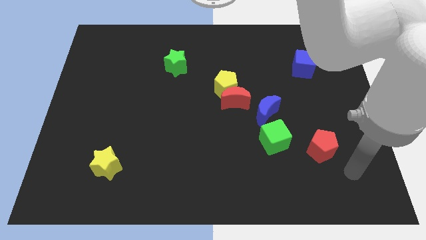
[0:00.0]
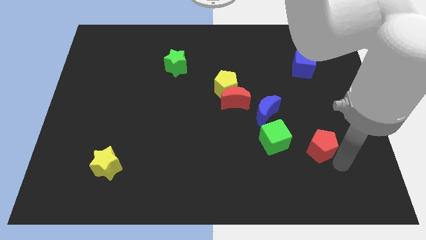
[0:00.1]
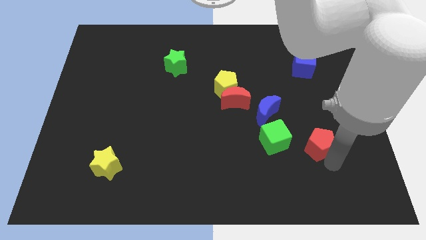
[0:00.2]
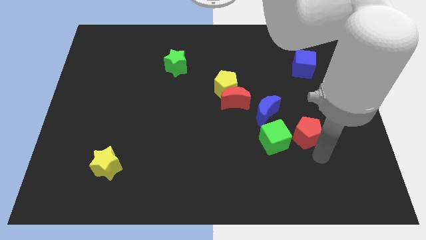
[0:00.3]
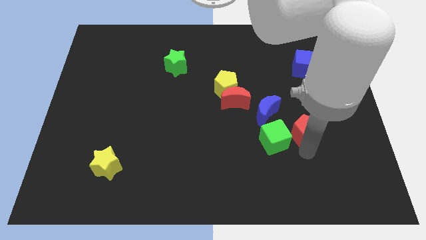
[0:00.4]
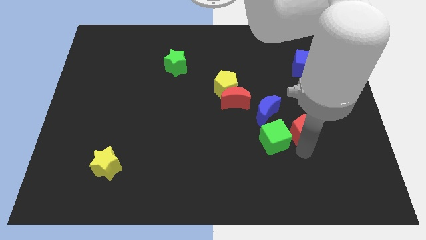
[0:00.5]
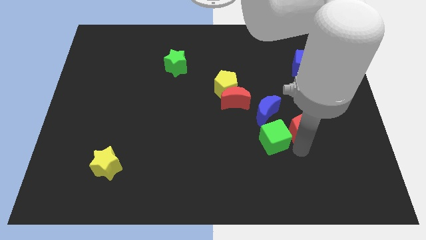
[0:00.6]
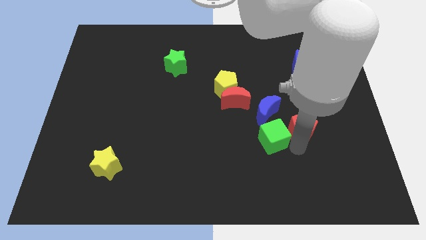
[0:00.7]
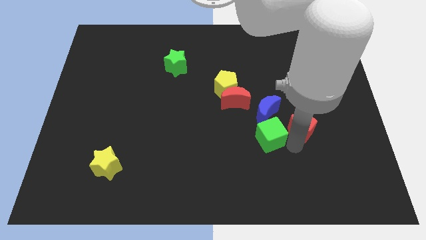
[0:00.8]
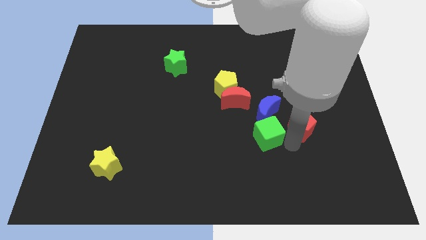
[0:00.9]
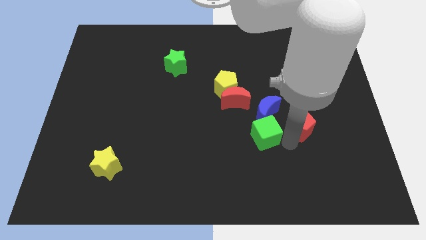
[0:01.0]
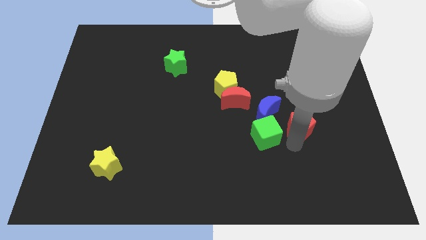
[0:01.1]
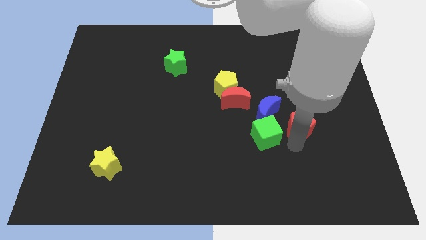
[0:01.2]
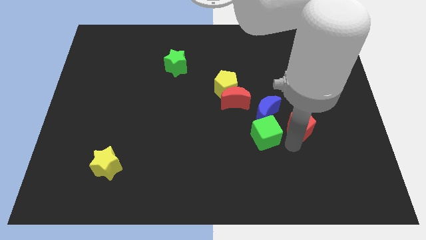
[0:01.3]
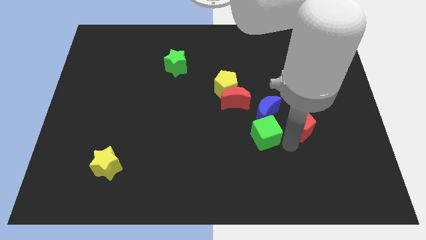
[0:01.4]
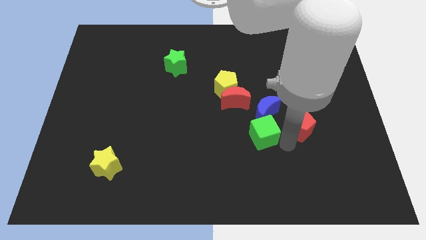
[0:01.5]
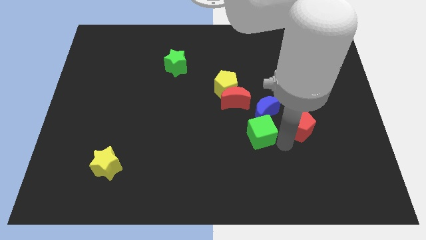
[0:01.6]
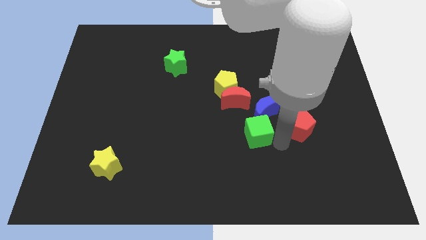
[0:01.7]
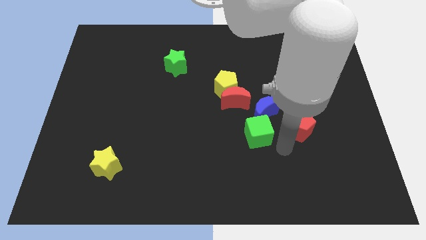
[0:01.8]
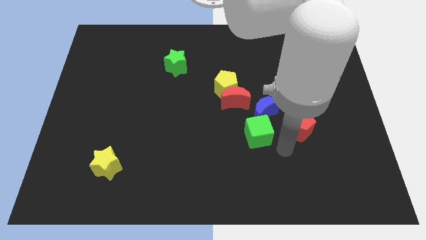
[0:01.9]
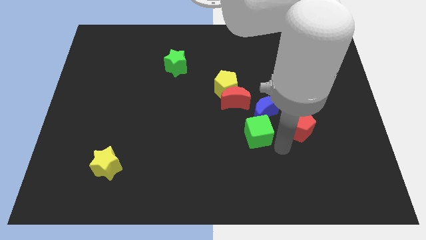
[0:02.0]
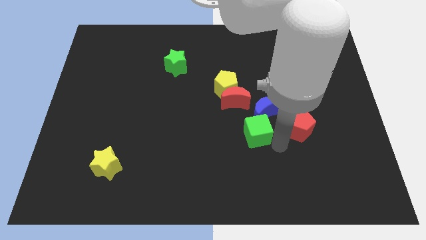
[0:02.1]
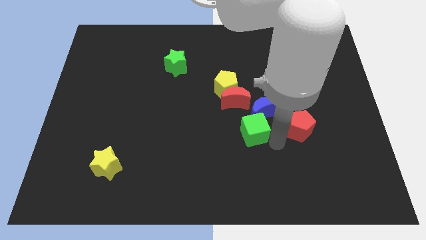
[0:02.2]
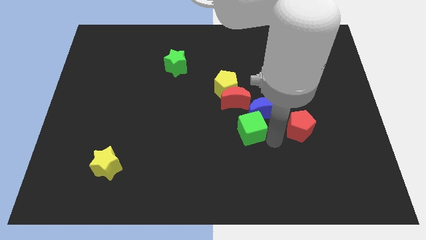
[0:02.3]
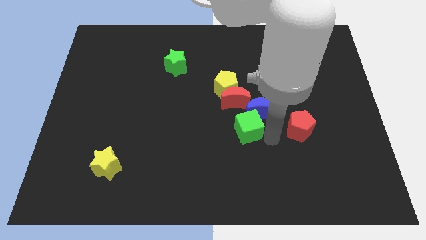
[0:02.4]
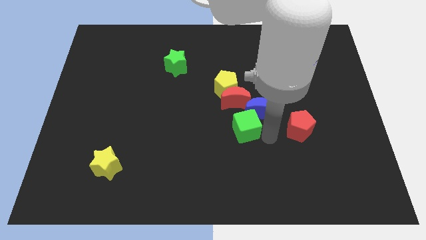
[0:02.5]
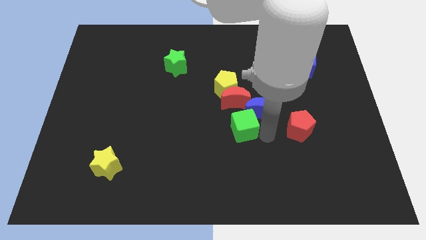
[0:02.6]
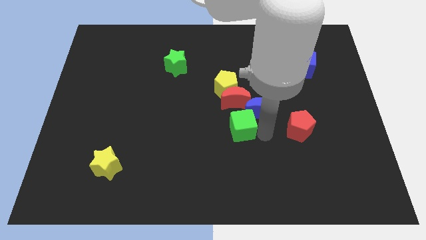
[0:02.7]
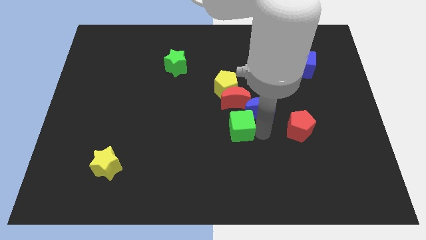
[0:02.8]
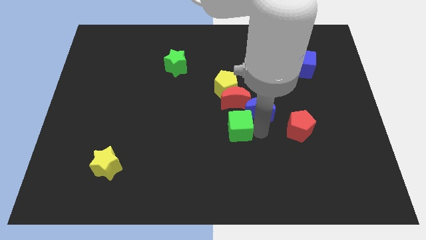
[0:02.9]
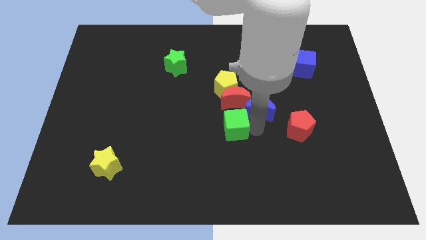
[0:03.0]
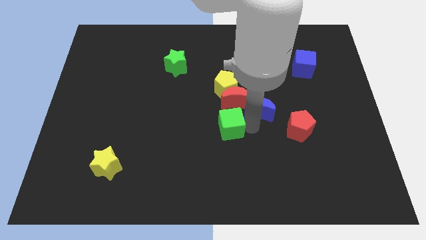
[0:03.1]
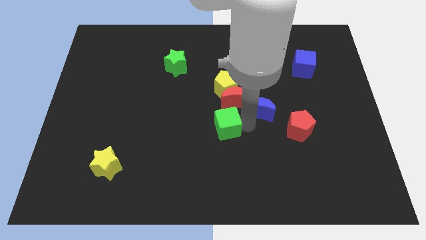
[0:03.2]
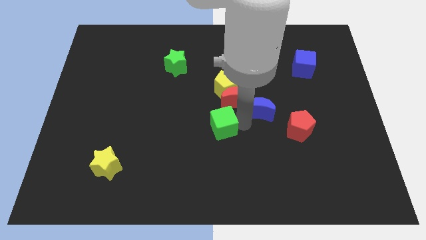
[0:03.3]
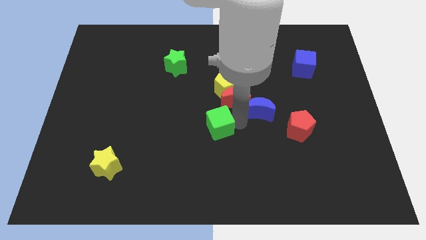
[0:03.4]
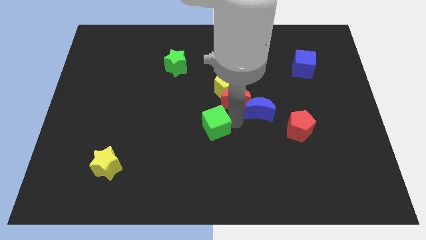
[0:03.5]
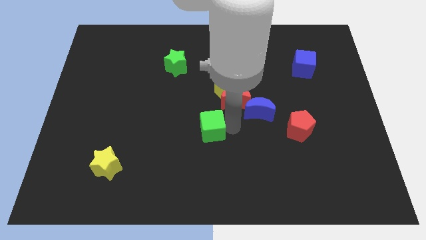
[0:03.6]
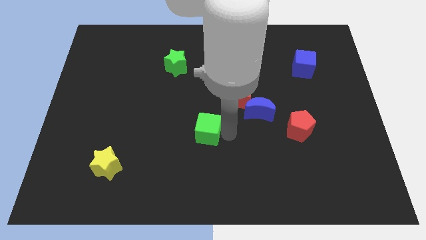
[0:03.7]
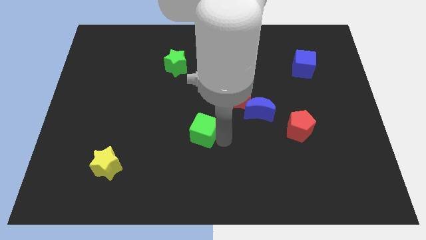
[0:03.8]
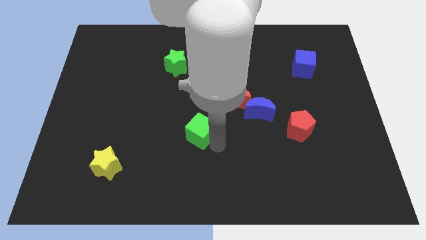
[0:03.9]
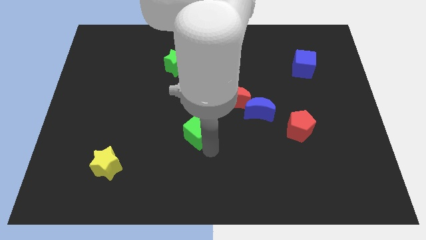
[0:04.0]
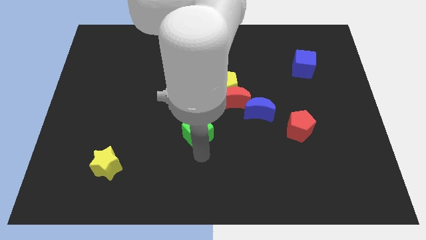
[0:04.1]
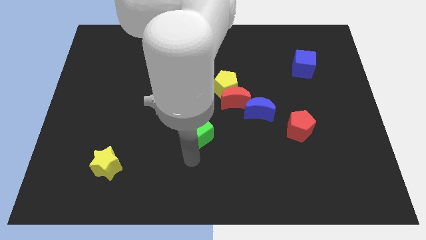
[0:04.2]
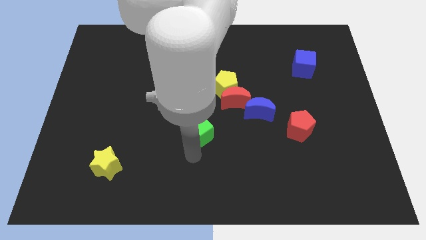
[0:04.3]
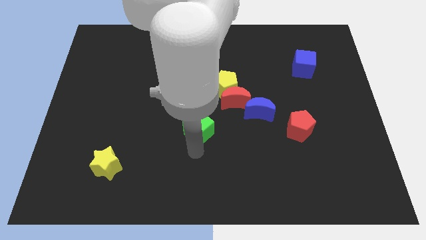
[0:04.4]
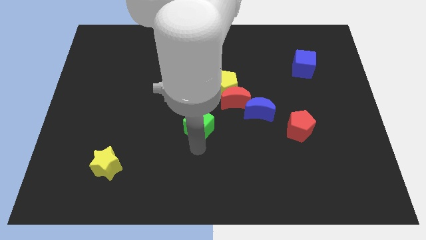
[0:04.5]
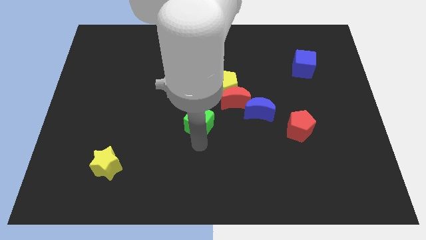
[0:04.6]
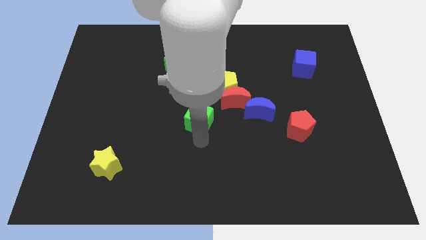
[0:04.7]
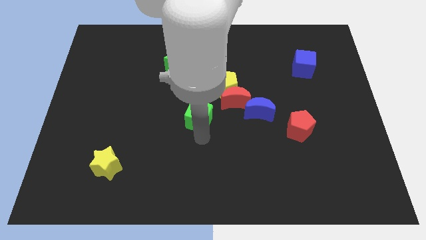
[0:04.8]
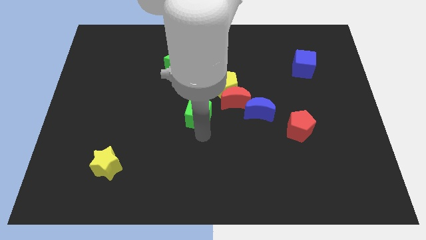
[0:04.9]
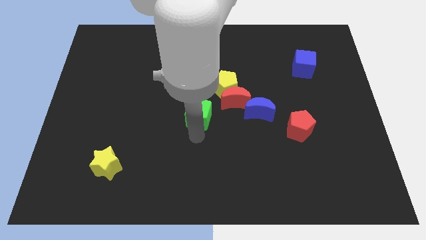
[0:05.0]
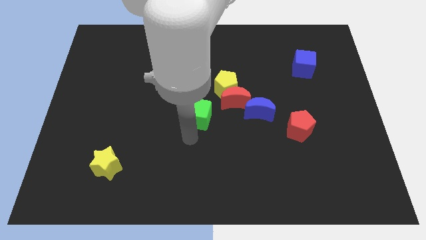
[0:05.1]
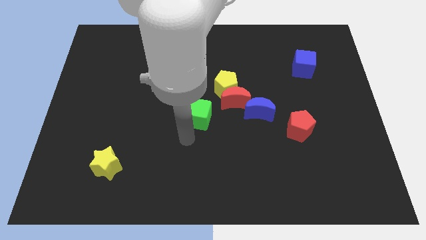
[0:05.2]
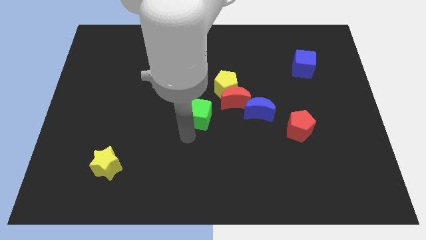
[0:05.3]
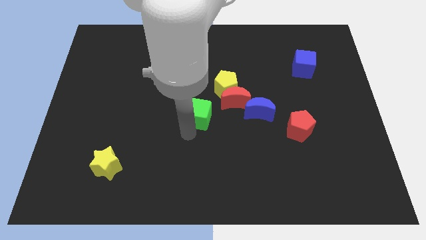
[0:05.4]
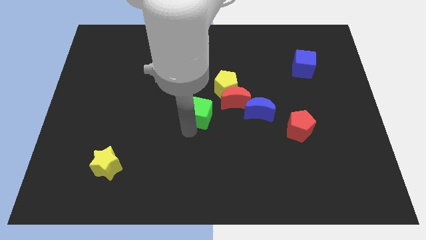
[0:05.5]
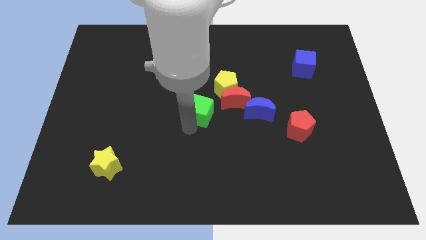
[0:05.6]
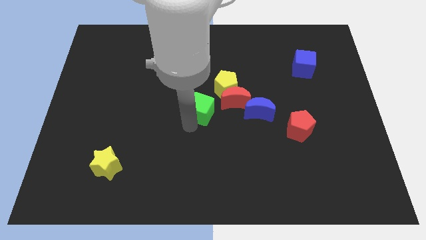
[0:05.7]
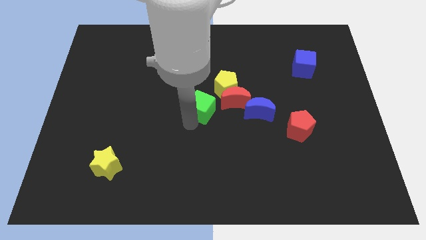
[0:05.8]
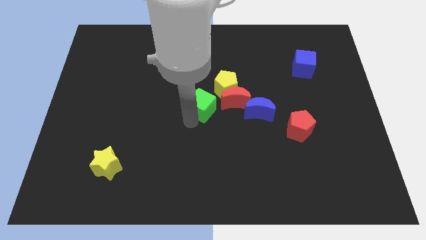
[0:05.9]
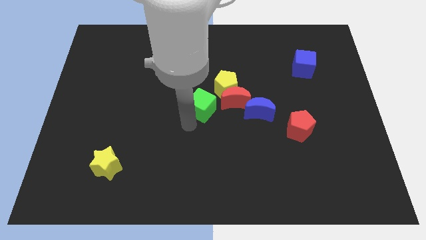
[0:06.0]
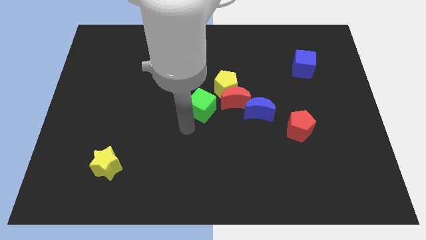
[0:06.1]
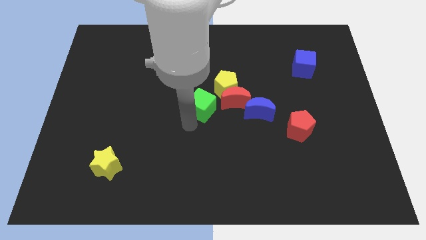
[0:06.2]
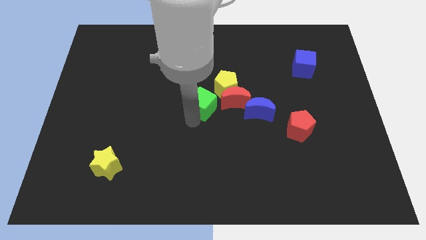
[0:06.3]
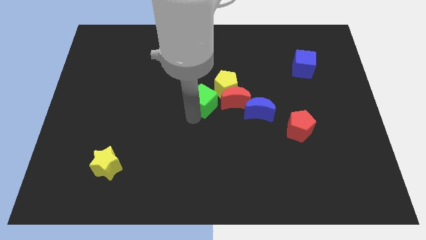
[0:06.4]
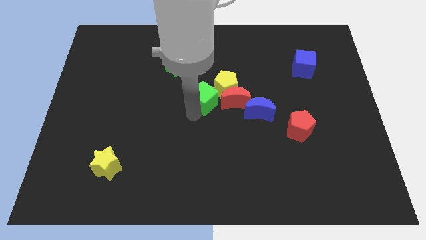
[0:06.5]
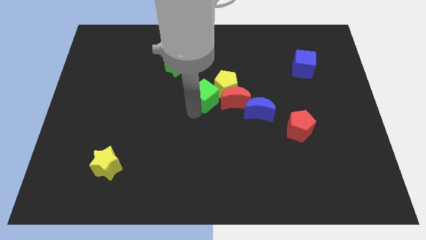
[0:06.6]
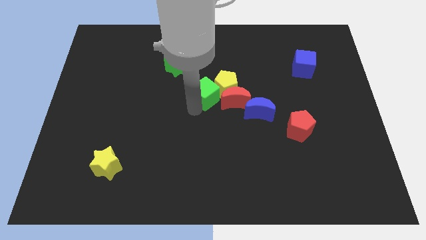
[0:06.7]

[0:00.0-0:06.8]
slide the green cube diagonally down and to the right of the green star

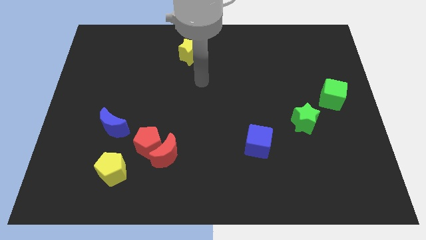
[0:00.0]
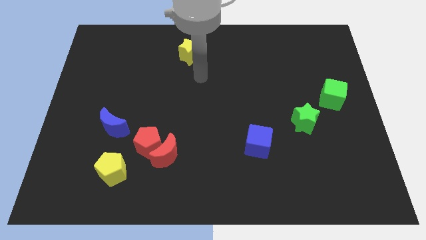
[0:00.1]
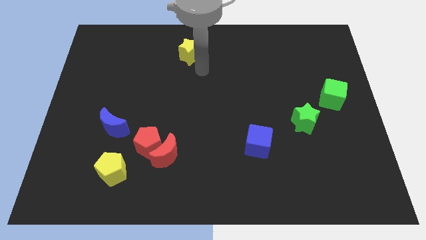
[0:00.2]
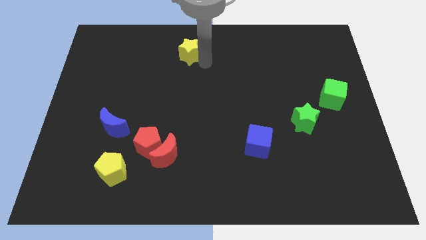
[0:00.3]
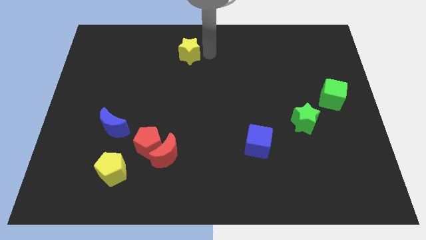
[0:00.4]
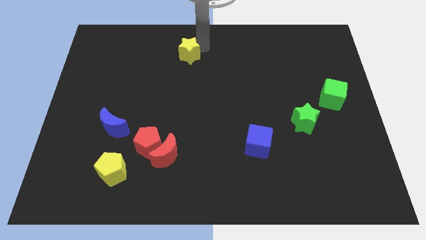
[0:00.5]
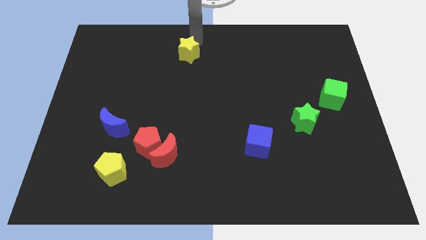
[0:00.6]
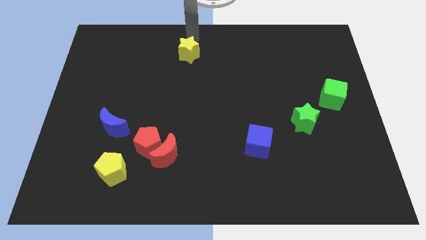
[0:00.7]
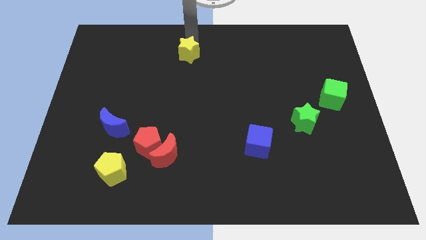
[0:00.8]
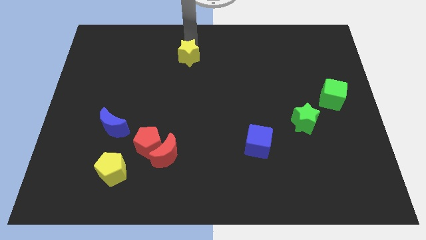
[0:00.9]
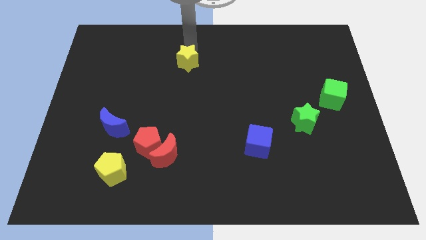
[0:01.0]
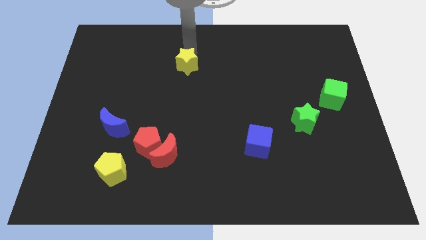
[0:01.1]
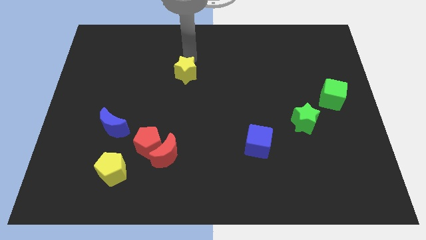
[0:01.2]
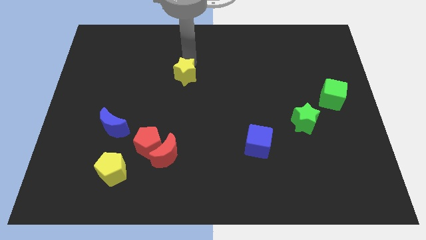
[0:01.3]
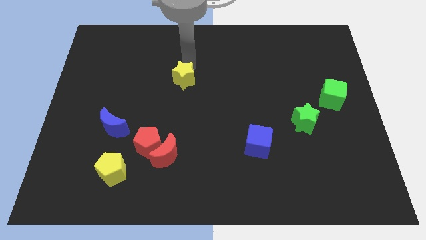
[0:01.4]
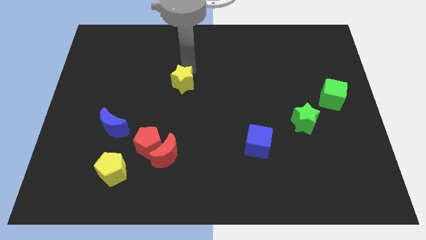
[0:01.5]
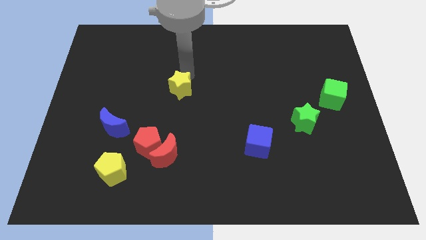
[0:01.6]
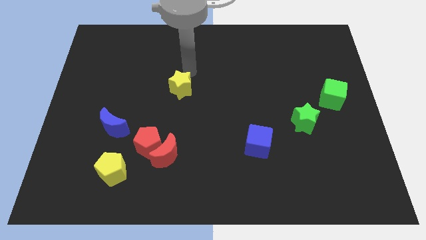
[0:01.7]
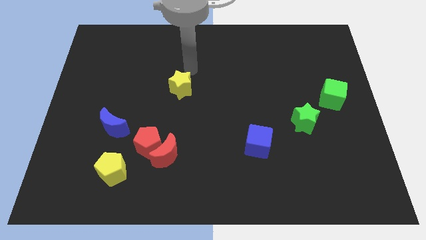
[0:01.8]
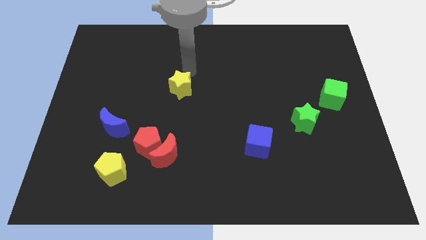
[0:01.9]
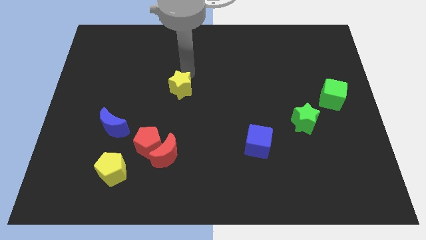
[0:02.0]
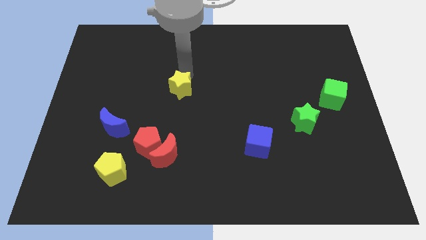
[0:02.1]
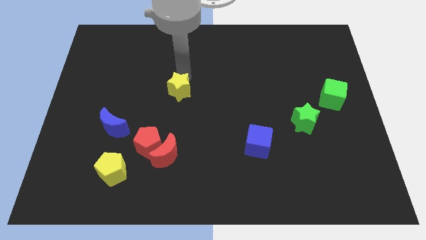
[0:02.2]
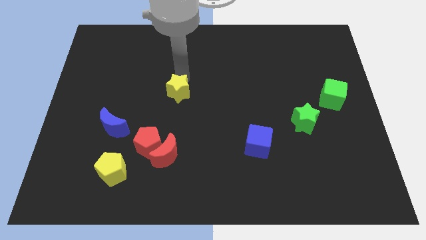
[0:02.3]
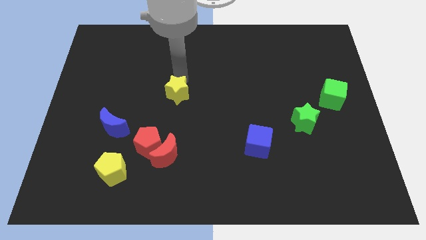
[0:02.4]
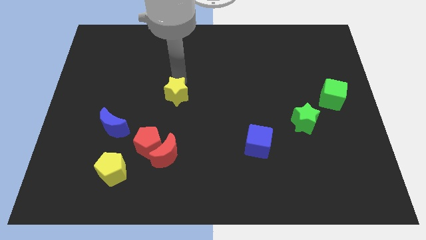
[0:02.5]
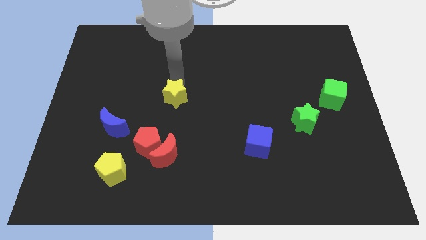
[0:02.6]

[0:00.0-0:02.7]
put the yellow star to the top of the red moon
